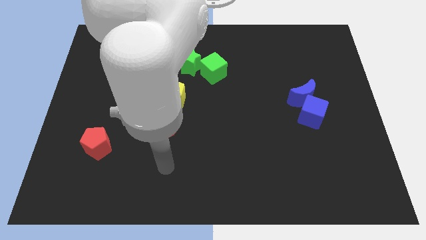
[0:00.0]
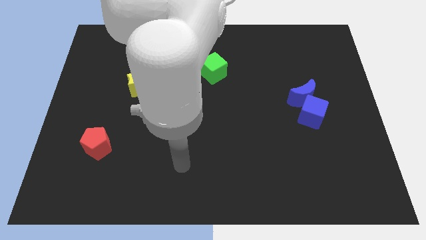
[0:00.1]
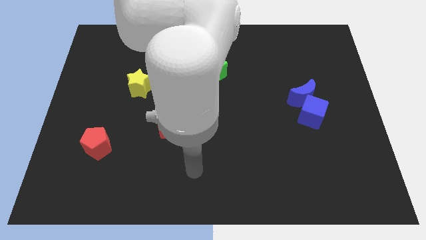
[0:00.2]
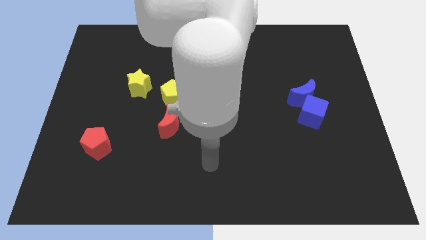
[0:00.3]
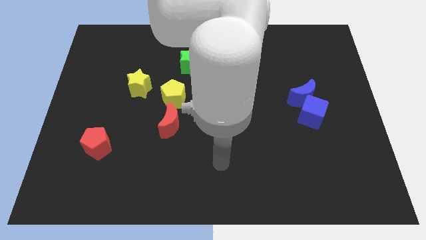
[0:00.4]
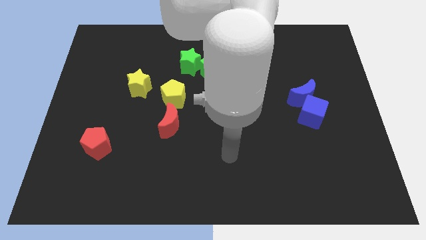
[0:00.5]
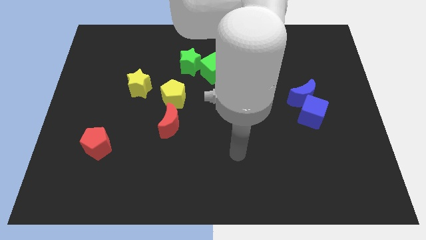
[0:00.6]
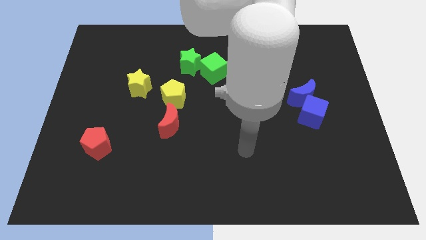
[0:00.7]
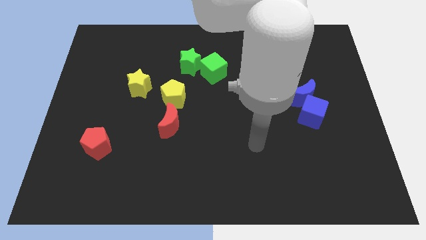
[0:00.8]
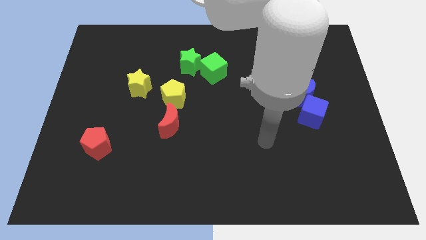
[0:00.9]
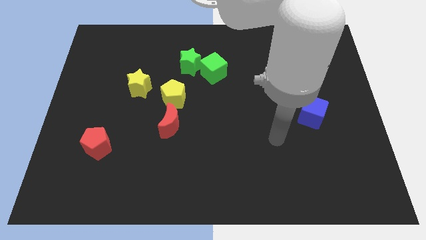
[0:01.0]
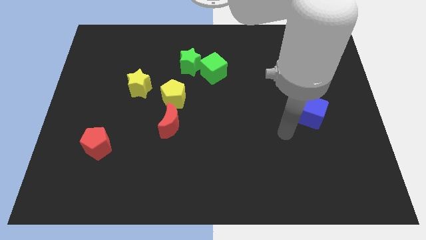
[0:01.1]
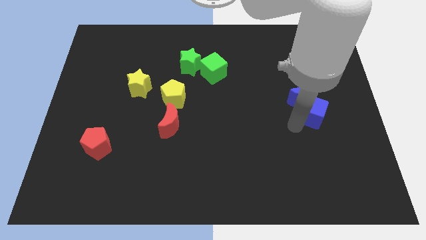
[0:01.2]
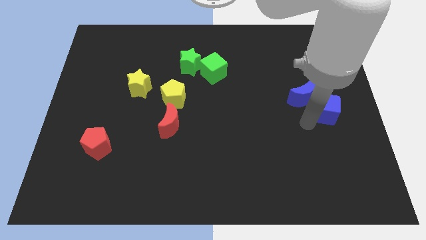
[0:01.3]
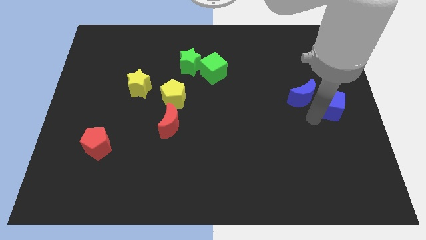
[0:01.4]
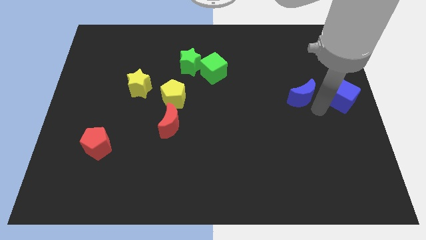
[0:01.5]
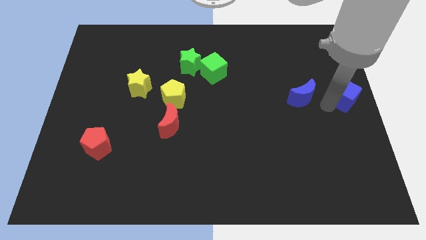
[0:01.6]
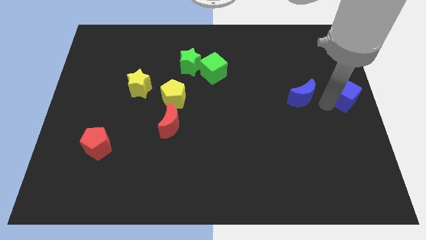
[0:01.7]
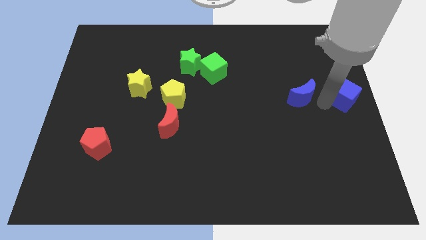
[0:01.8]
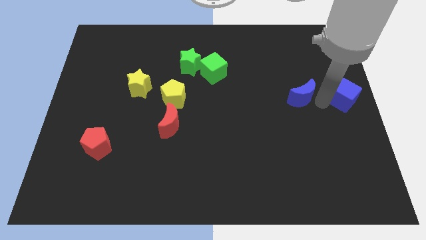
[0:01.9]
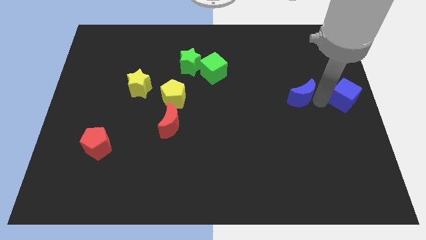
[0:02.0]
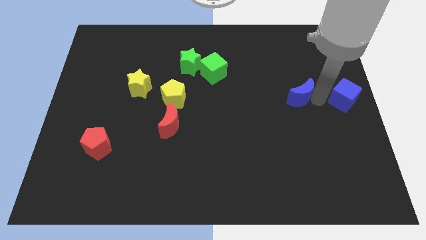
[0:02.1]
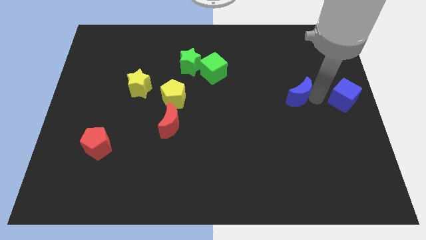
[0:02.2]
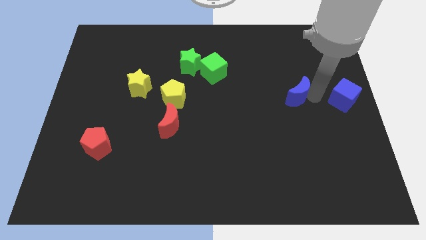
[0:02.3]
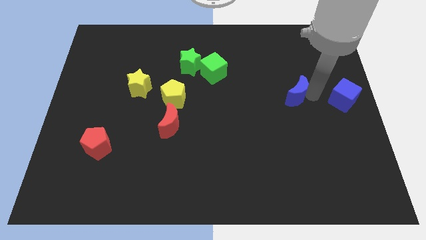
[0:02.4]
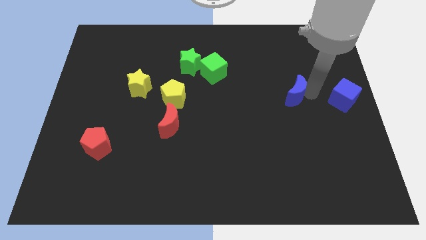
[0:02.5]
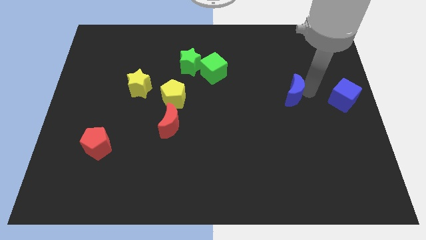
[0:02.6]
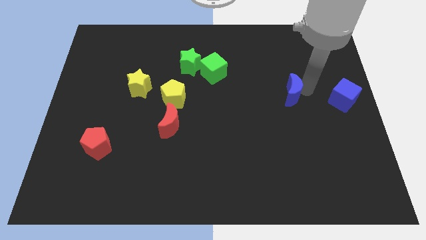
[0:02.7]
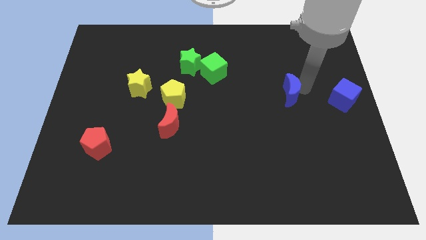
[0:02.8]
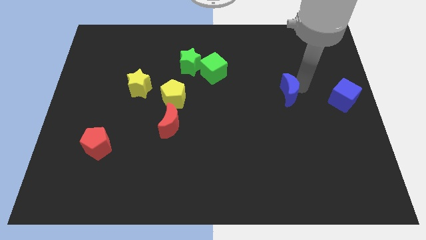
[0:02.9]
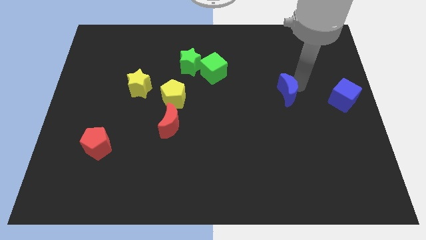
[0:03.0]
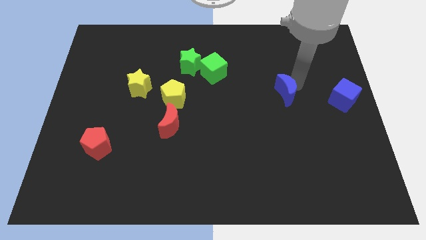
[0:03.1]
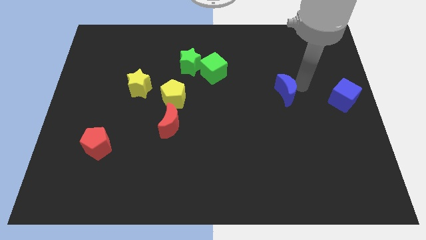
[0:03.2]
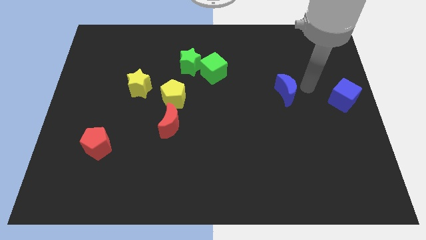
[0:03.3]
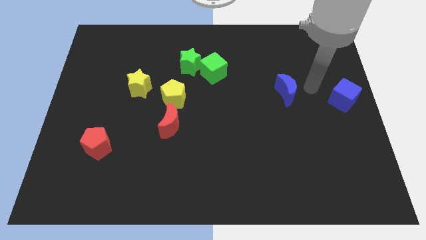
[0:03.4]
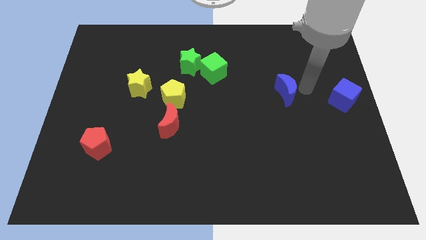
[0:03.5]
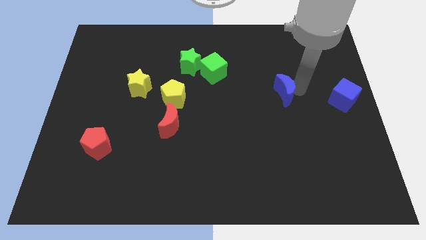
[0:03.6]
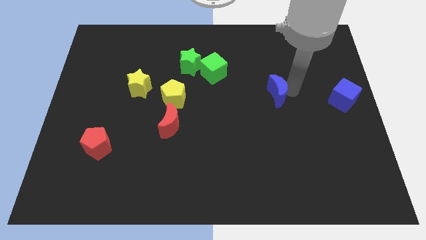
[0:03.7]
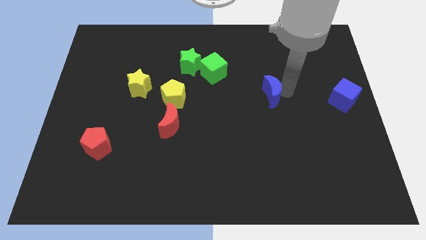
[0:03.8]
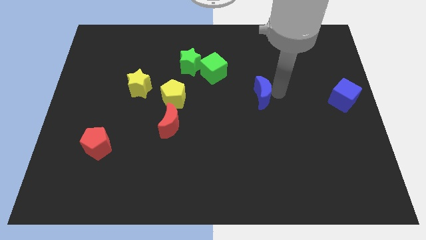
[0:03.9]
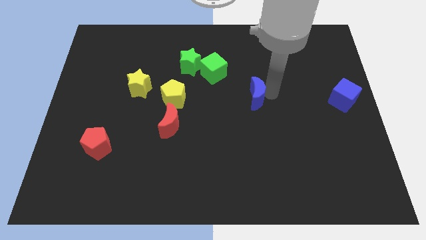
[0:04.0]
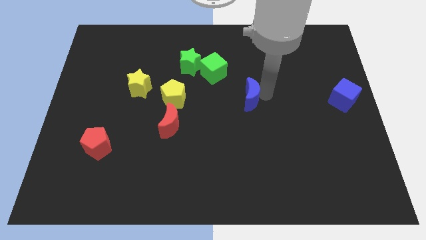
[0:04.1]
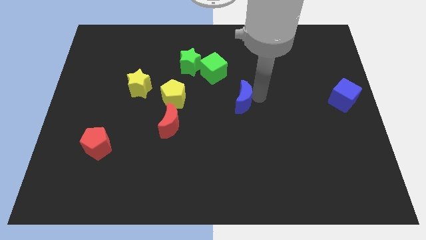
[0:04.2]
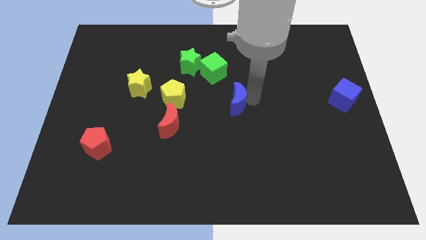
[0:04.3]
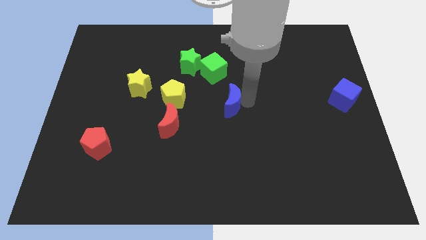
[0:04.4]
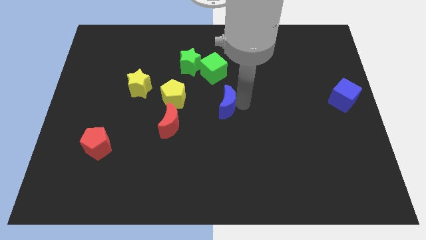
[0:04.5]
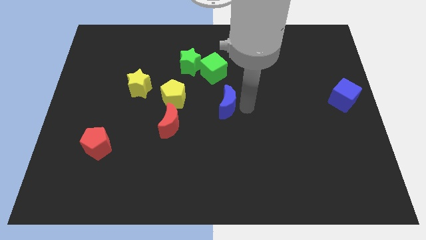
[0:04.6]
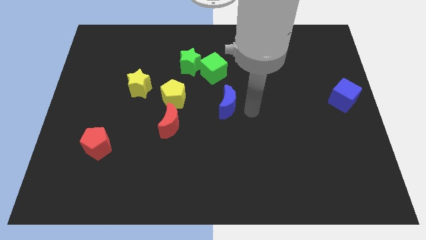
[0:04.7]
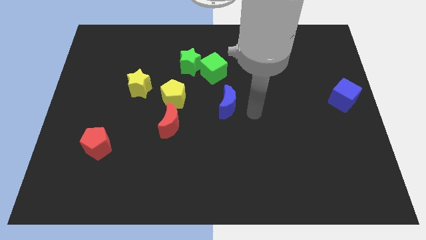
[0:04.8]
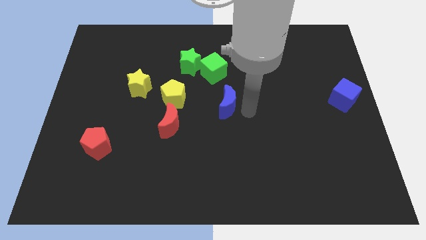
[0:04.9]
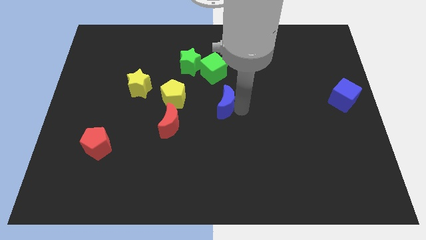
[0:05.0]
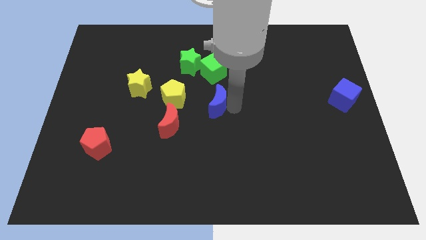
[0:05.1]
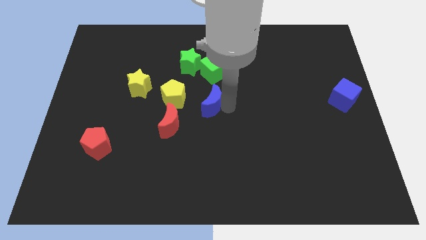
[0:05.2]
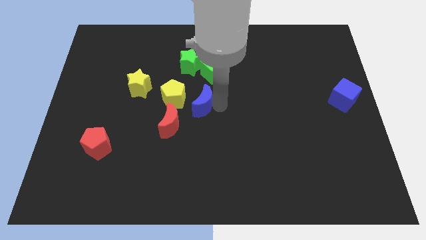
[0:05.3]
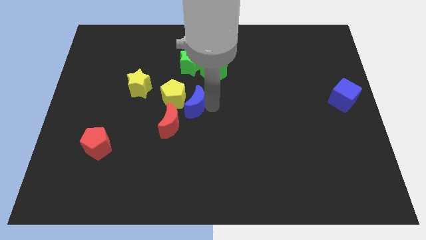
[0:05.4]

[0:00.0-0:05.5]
move the blue moon next to the yellow pentagon

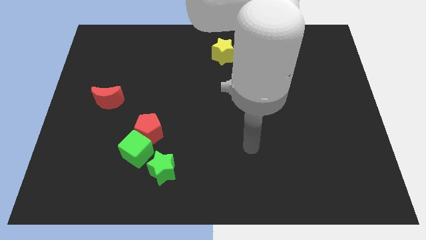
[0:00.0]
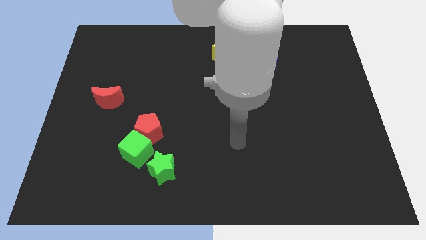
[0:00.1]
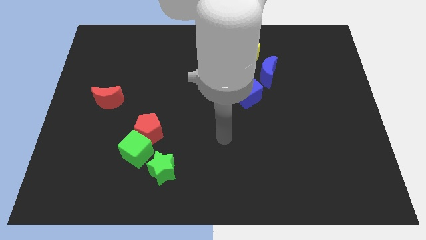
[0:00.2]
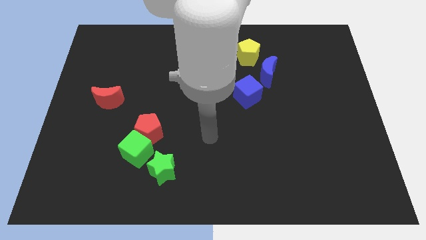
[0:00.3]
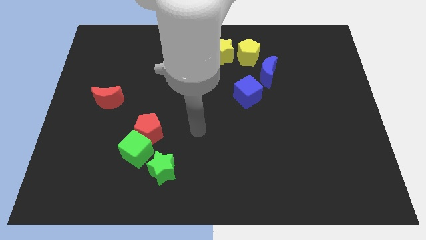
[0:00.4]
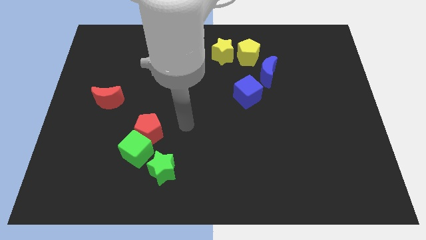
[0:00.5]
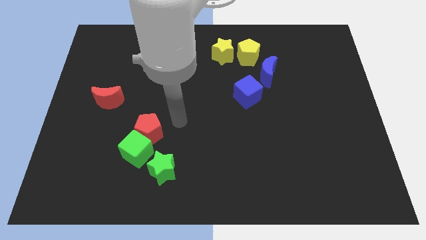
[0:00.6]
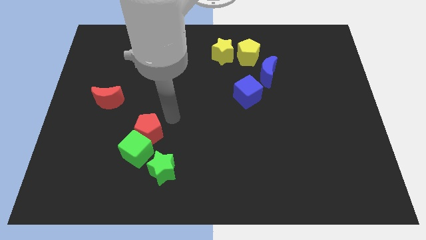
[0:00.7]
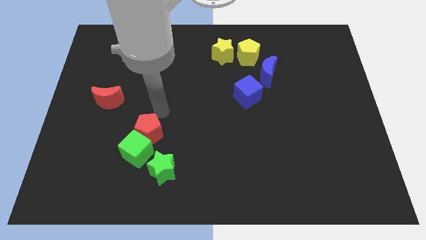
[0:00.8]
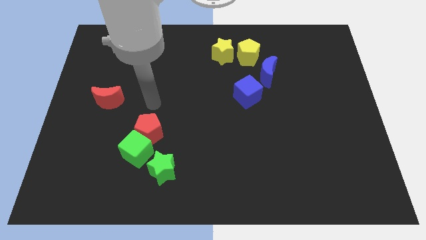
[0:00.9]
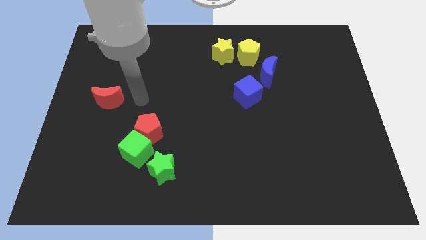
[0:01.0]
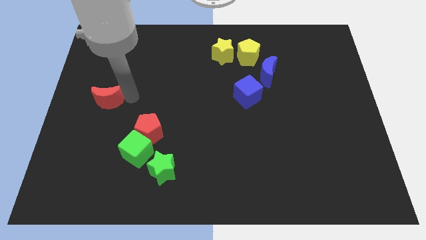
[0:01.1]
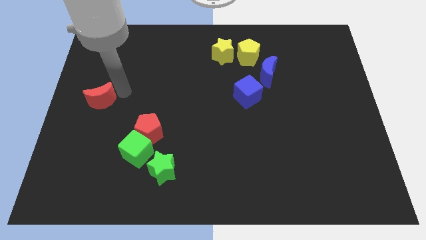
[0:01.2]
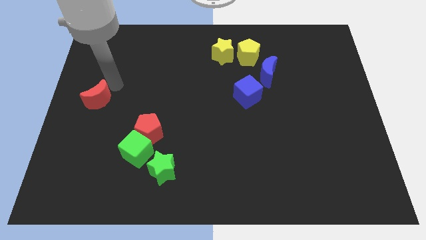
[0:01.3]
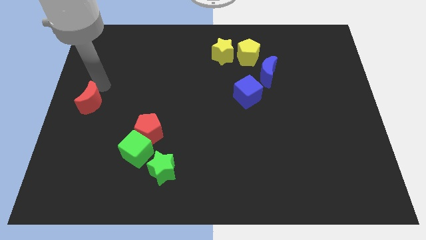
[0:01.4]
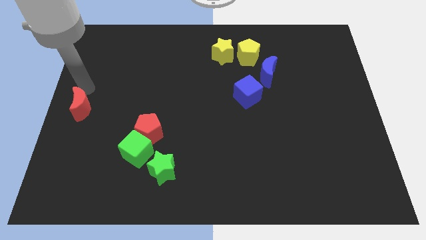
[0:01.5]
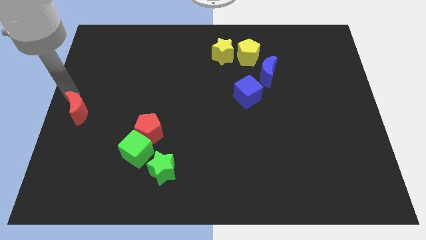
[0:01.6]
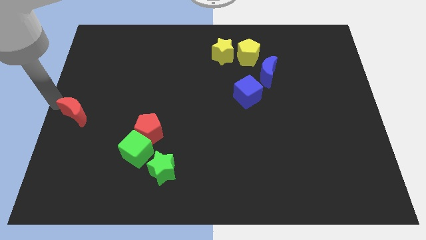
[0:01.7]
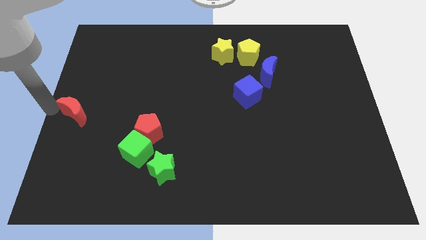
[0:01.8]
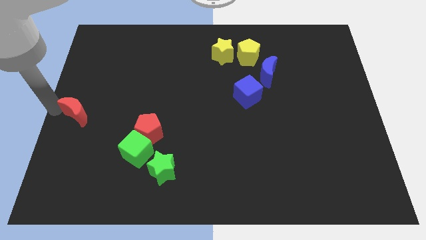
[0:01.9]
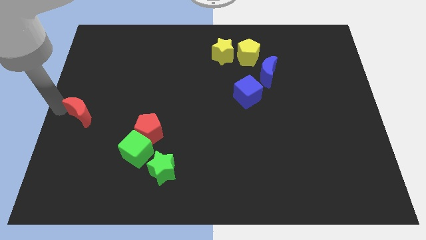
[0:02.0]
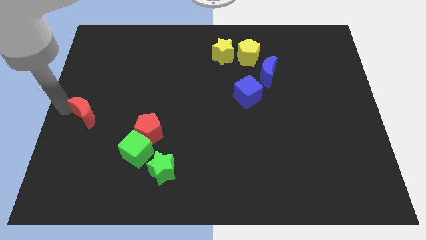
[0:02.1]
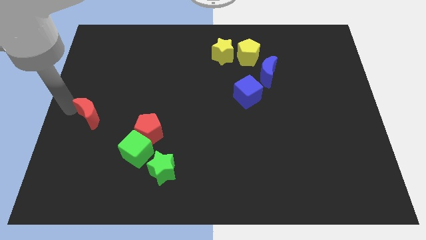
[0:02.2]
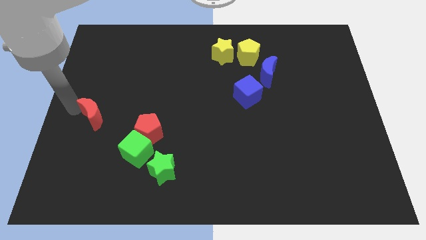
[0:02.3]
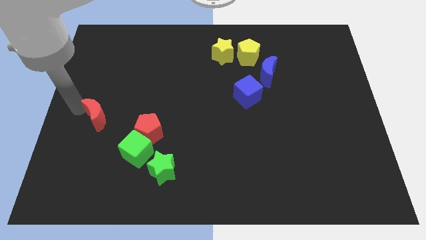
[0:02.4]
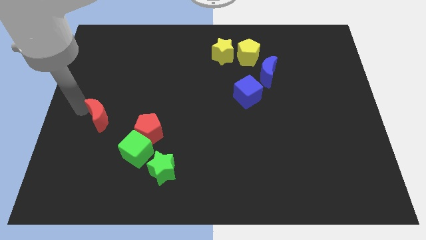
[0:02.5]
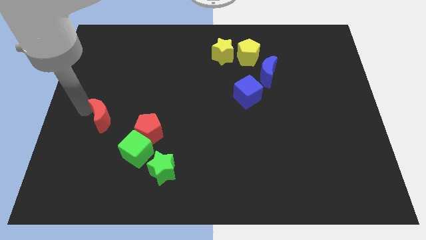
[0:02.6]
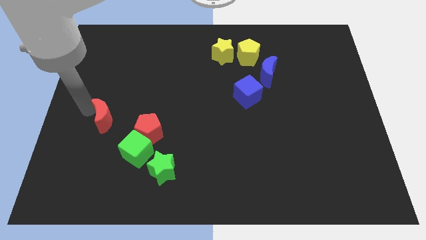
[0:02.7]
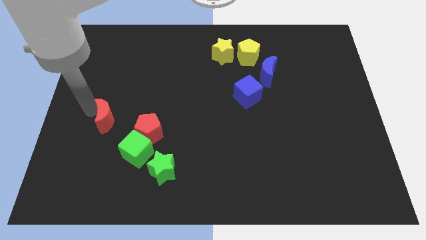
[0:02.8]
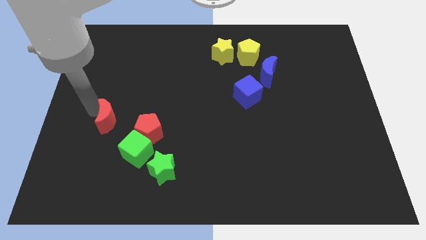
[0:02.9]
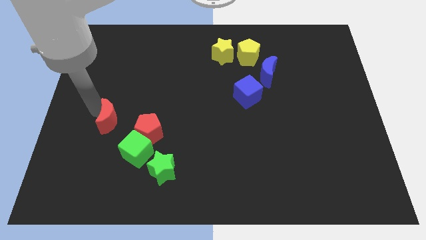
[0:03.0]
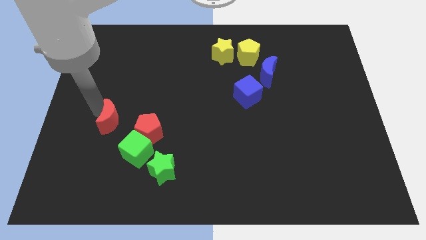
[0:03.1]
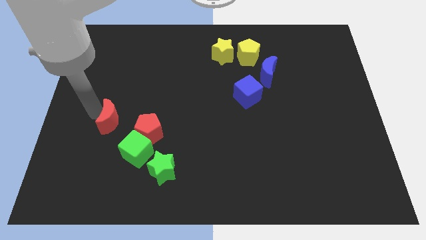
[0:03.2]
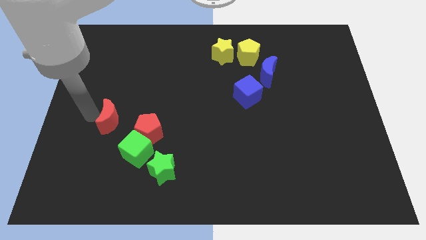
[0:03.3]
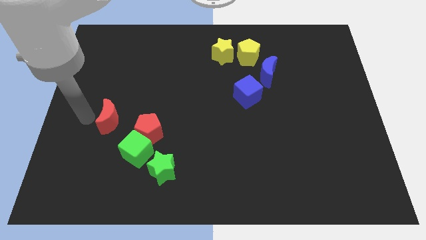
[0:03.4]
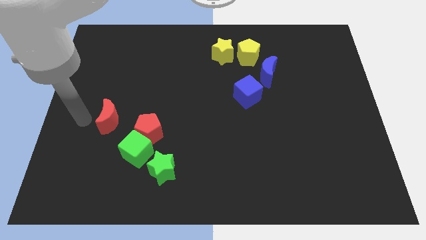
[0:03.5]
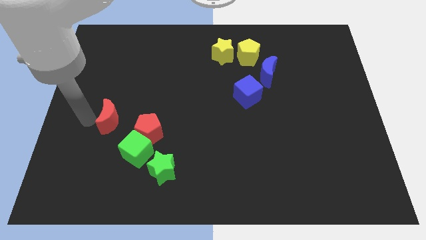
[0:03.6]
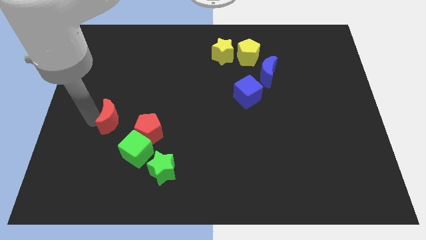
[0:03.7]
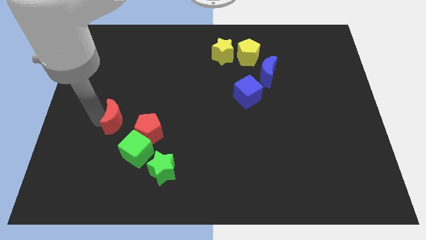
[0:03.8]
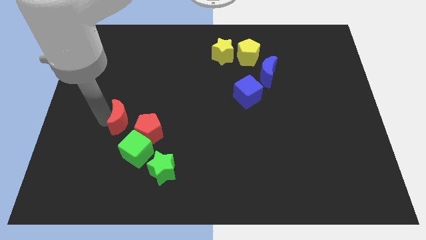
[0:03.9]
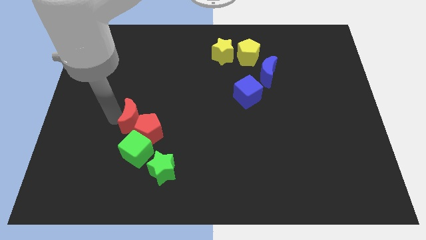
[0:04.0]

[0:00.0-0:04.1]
move the red moon close to the red pentagon
